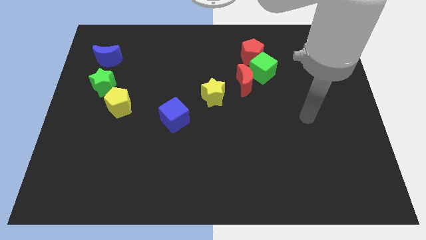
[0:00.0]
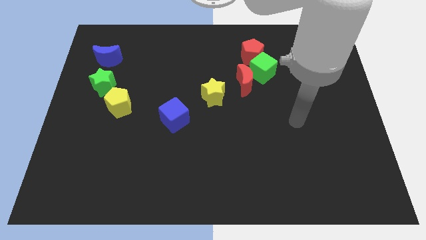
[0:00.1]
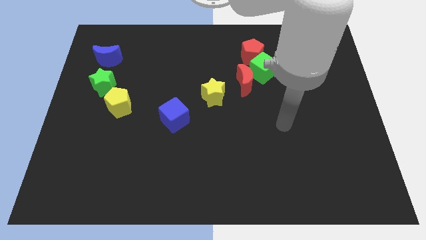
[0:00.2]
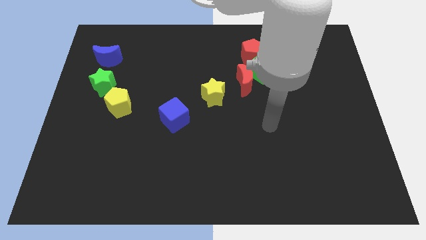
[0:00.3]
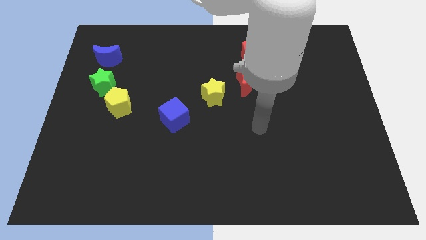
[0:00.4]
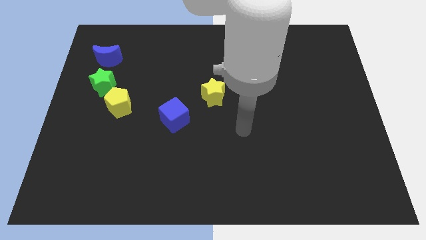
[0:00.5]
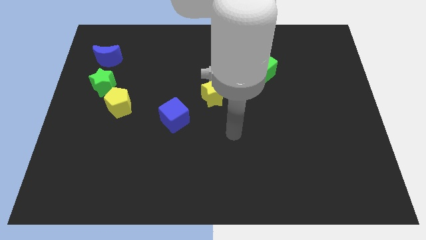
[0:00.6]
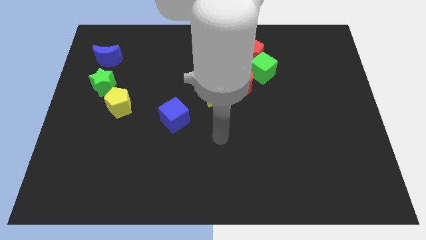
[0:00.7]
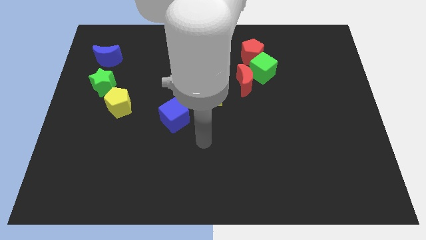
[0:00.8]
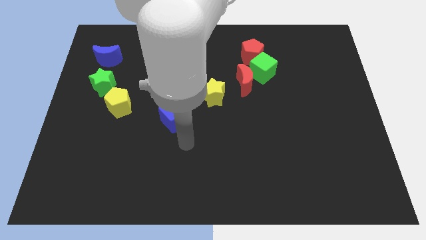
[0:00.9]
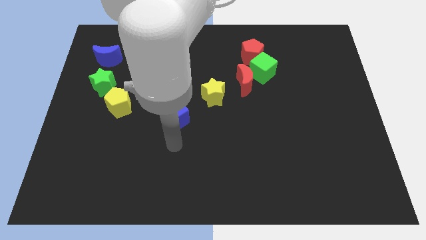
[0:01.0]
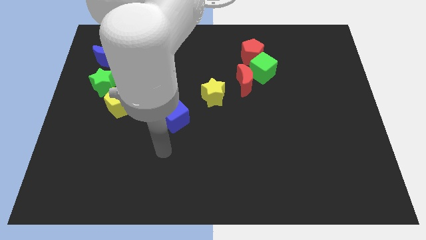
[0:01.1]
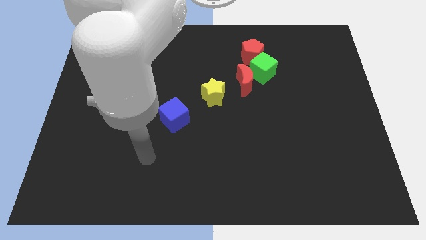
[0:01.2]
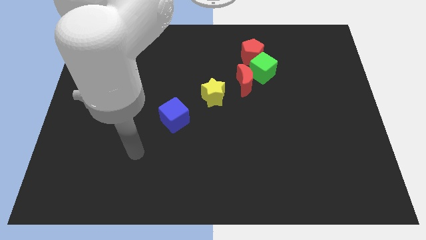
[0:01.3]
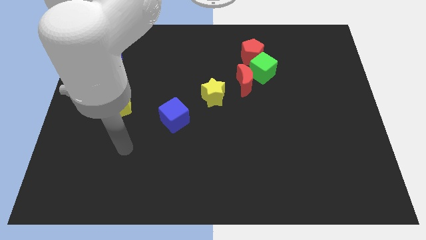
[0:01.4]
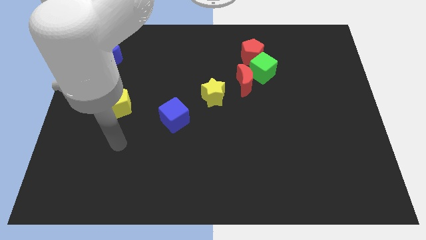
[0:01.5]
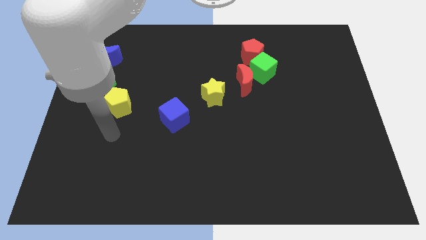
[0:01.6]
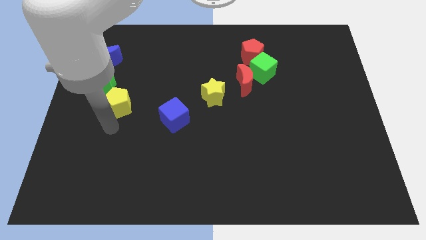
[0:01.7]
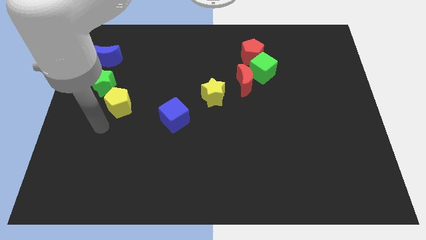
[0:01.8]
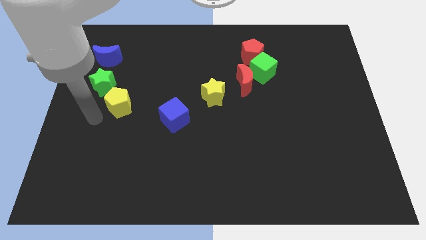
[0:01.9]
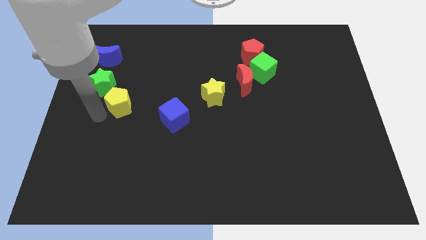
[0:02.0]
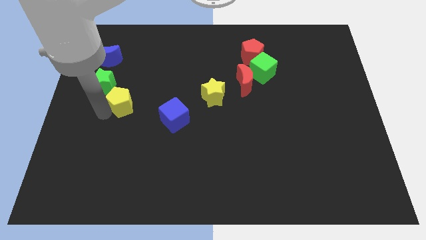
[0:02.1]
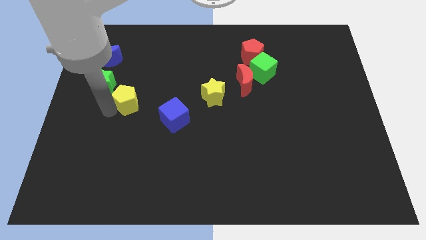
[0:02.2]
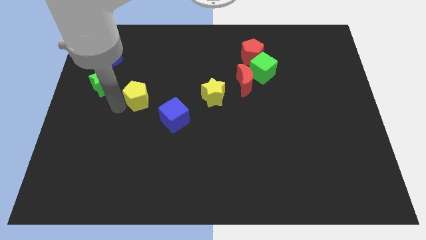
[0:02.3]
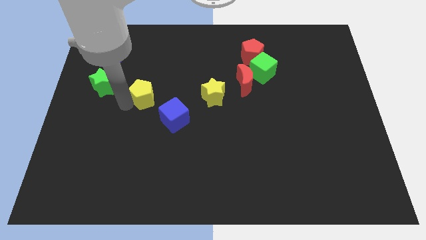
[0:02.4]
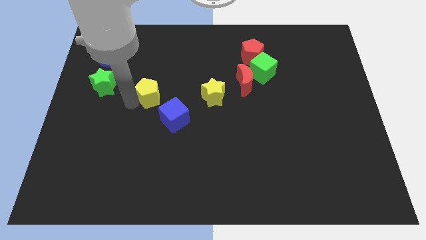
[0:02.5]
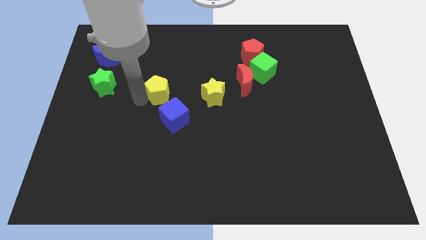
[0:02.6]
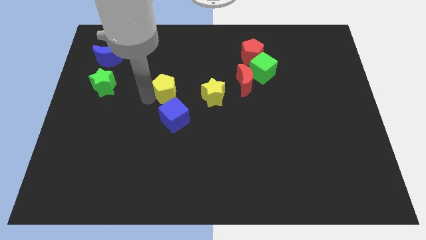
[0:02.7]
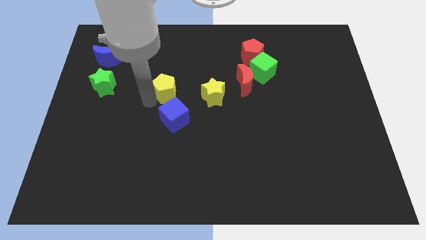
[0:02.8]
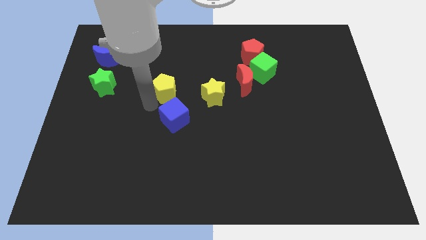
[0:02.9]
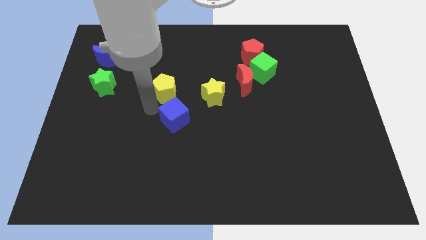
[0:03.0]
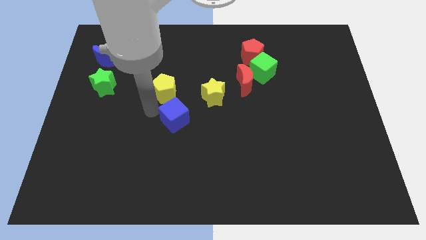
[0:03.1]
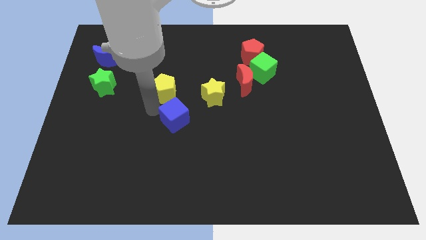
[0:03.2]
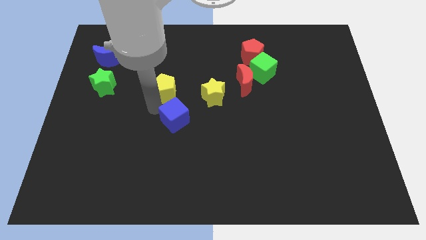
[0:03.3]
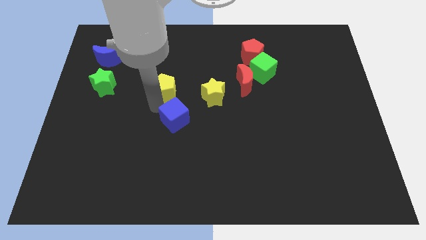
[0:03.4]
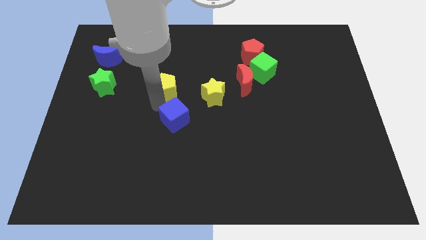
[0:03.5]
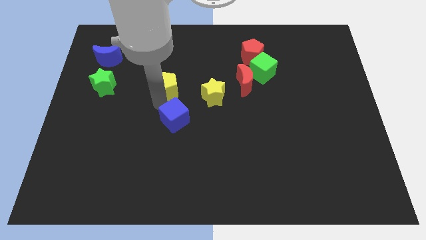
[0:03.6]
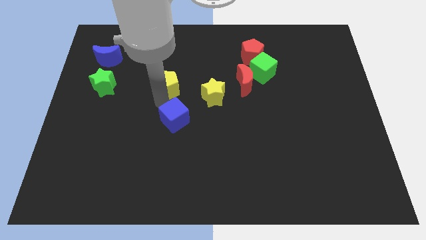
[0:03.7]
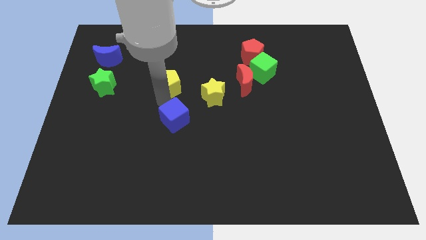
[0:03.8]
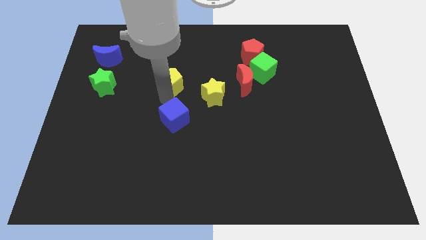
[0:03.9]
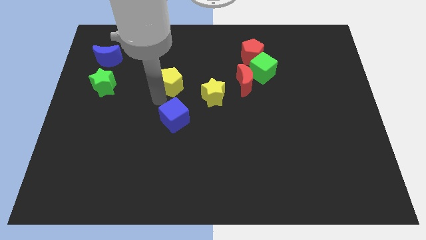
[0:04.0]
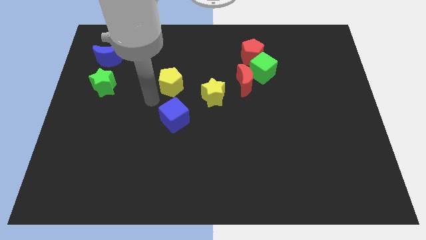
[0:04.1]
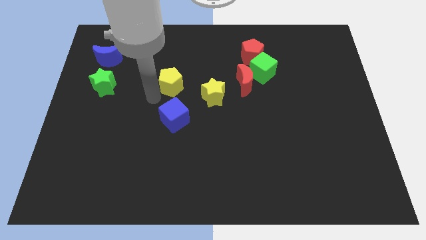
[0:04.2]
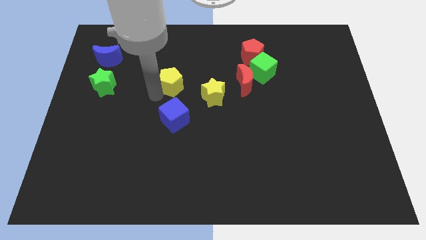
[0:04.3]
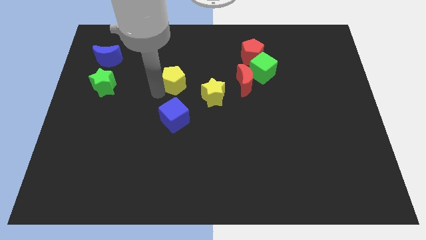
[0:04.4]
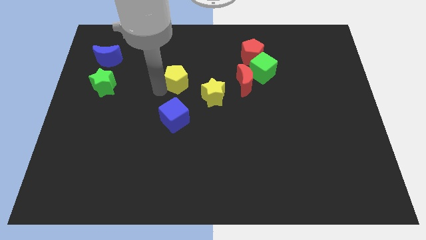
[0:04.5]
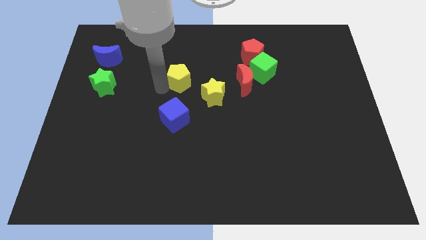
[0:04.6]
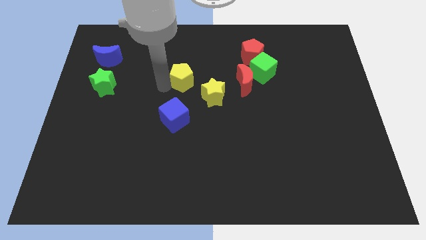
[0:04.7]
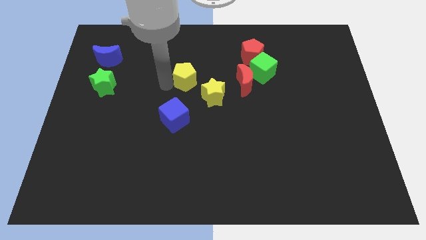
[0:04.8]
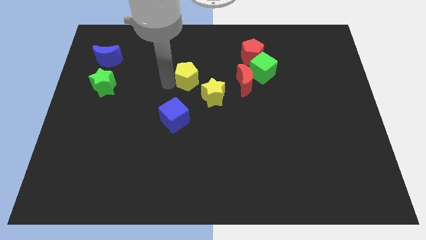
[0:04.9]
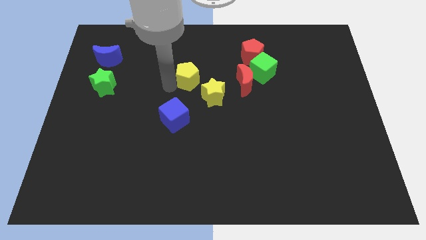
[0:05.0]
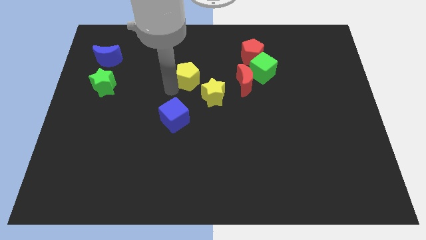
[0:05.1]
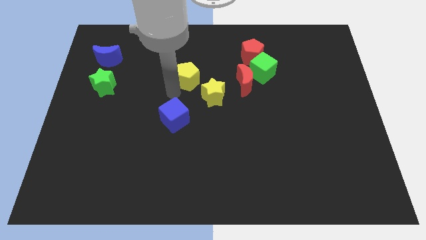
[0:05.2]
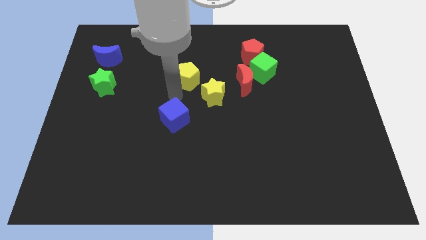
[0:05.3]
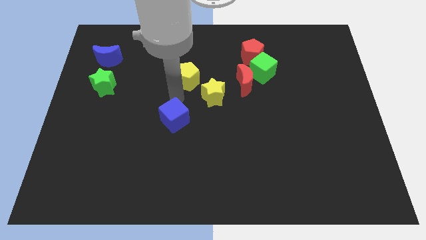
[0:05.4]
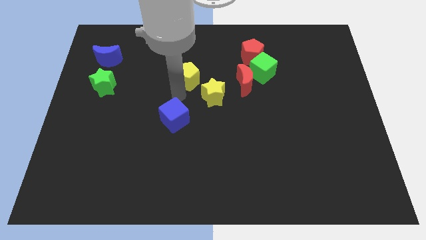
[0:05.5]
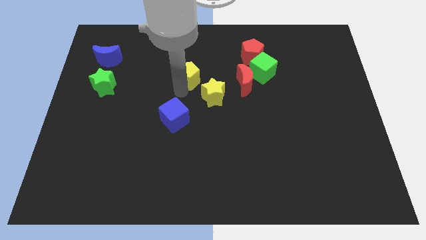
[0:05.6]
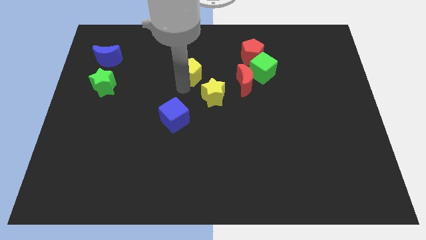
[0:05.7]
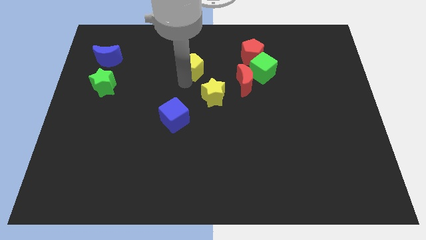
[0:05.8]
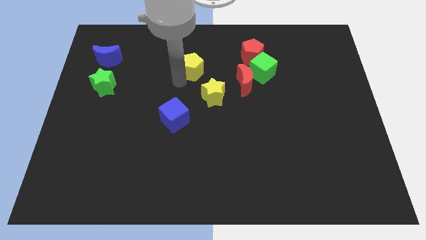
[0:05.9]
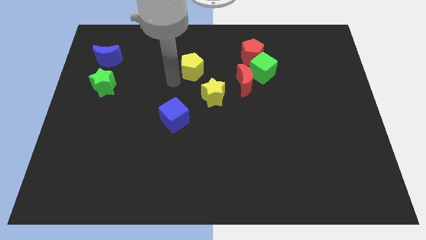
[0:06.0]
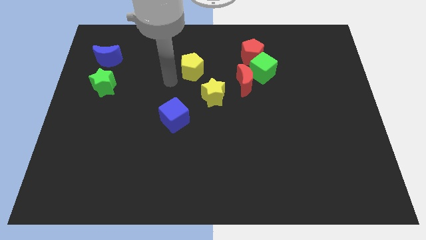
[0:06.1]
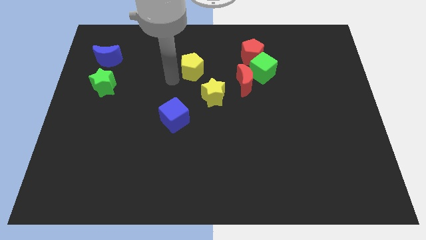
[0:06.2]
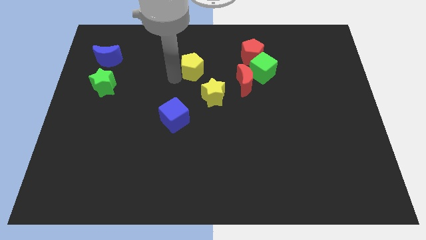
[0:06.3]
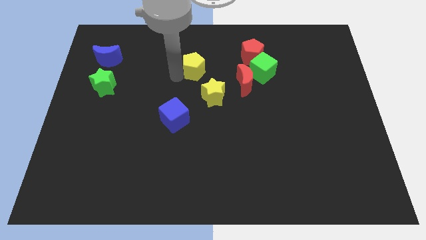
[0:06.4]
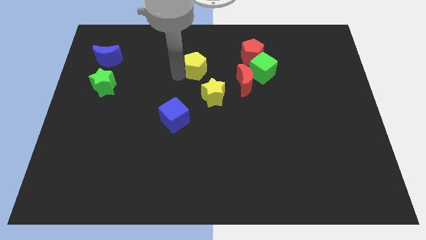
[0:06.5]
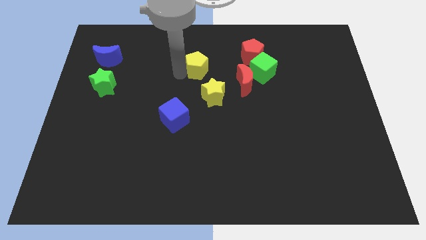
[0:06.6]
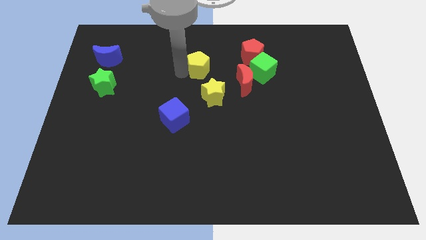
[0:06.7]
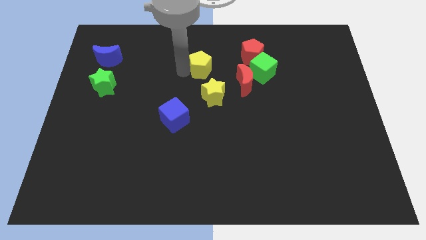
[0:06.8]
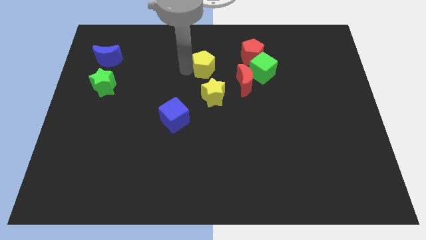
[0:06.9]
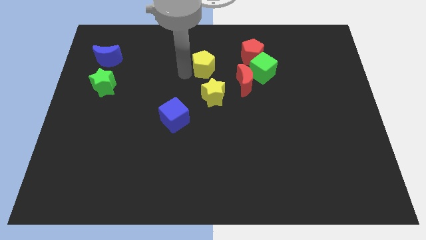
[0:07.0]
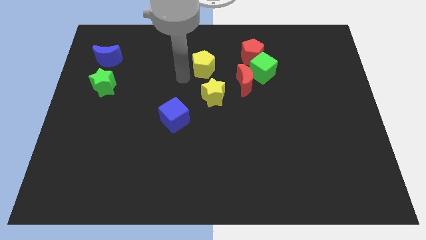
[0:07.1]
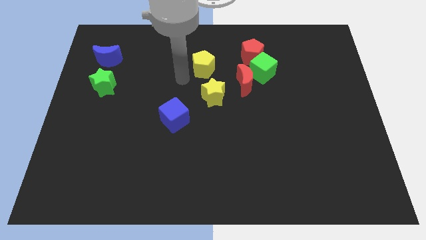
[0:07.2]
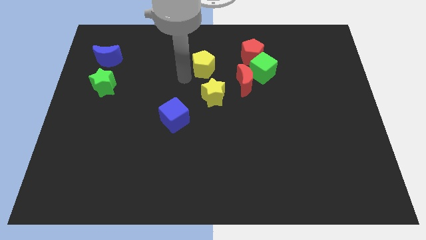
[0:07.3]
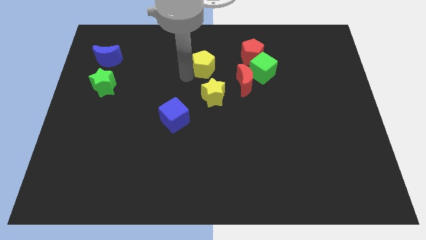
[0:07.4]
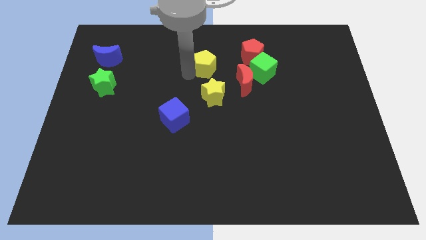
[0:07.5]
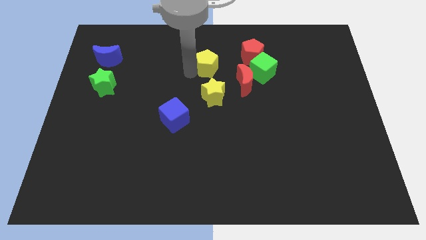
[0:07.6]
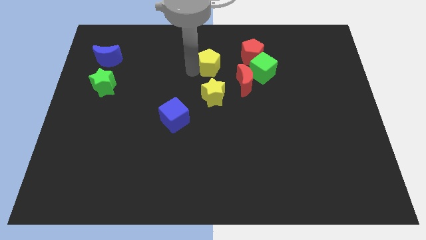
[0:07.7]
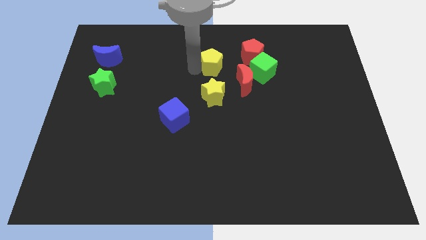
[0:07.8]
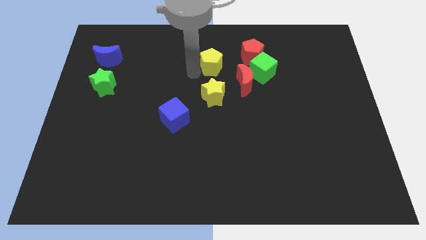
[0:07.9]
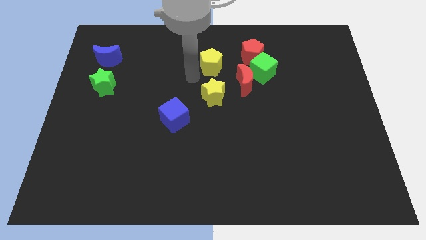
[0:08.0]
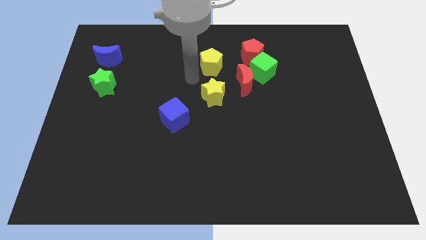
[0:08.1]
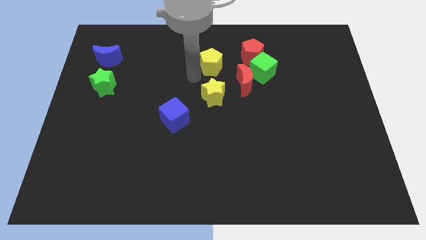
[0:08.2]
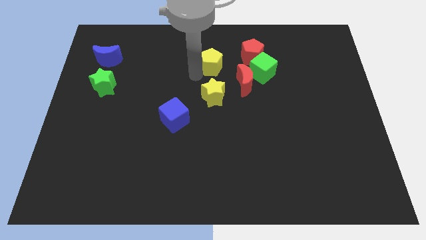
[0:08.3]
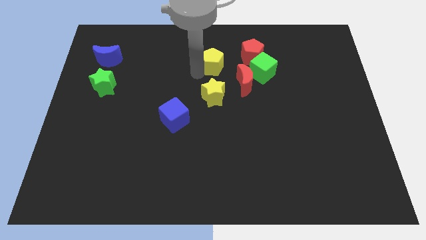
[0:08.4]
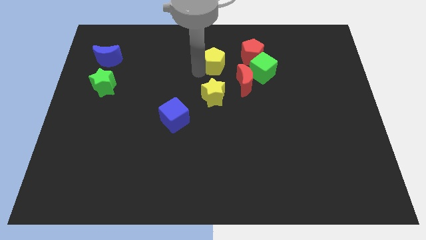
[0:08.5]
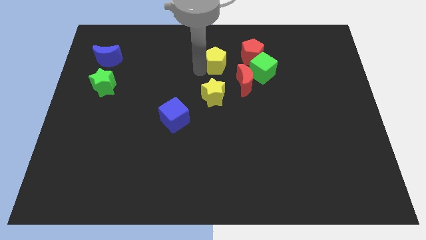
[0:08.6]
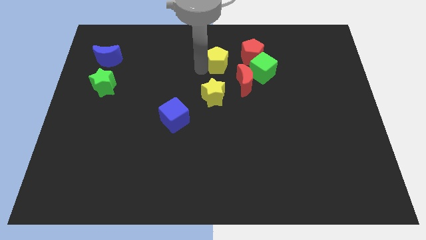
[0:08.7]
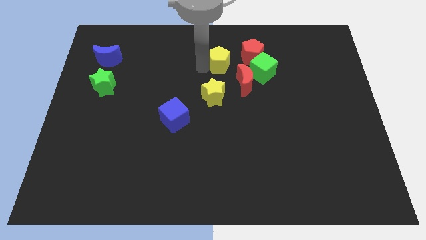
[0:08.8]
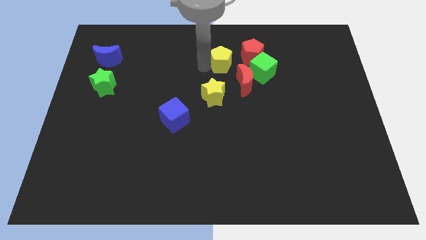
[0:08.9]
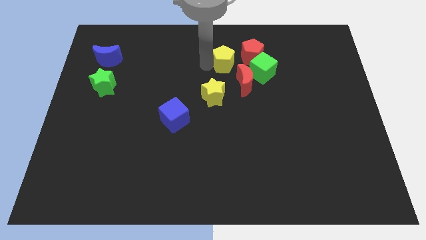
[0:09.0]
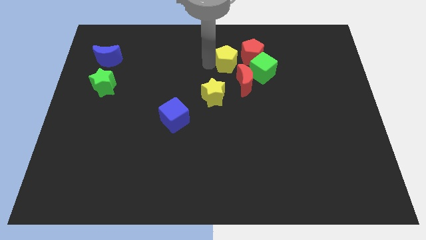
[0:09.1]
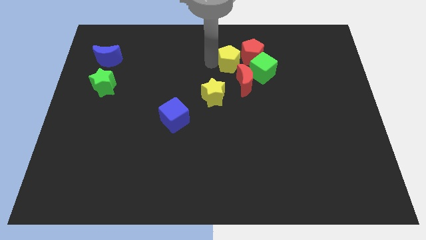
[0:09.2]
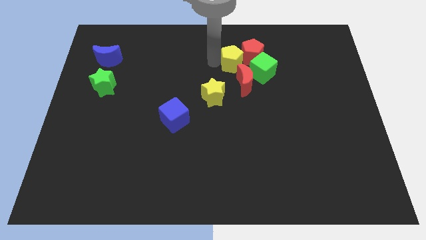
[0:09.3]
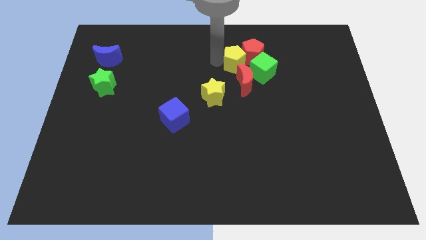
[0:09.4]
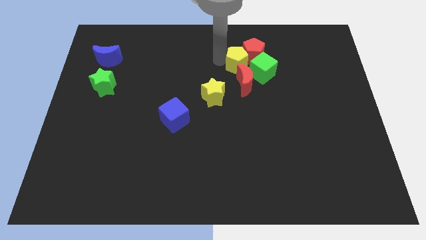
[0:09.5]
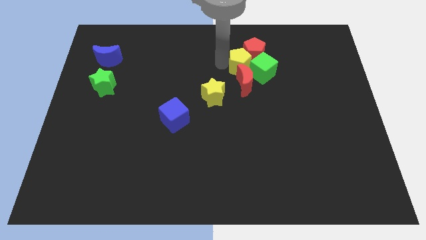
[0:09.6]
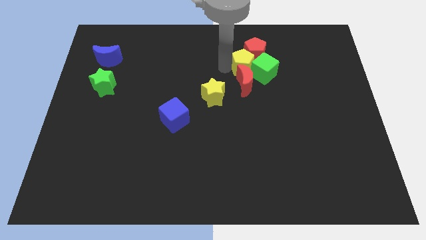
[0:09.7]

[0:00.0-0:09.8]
slide the yellow pentagon diagonally up and to the right of the red moon
